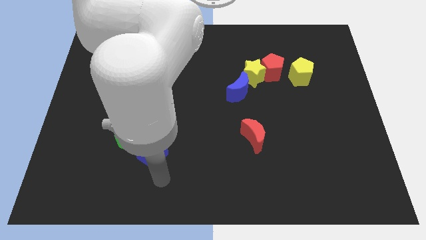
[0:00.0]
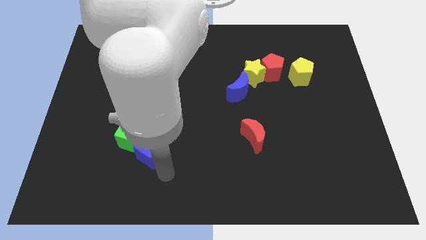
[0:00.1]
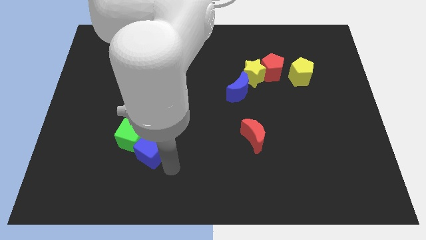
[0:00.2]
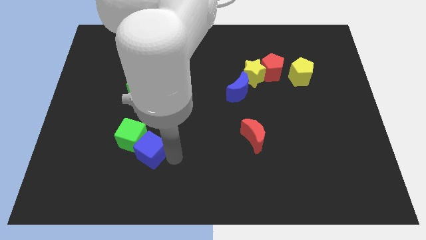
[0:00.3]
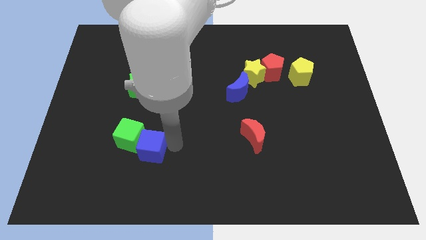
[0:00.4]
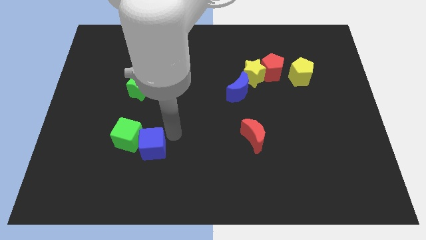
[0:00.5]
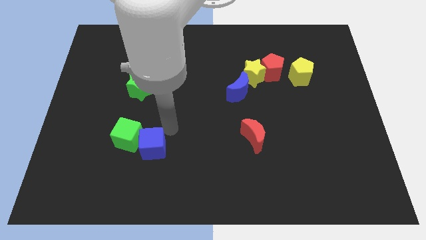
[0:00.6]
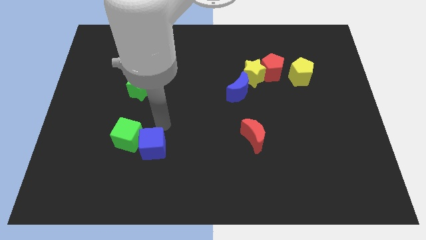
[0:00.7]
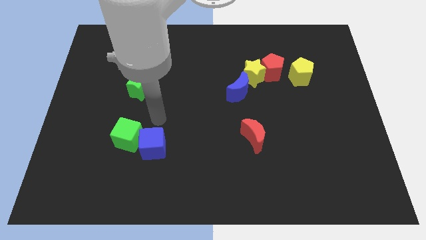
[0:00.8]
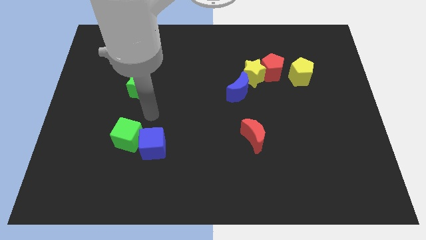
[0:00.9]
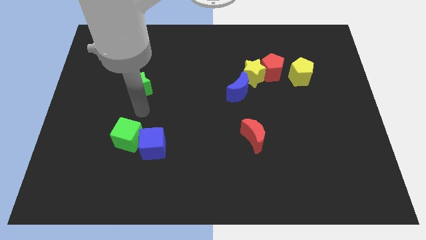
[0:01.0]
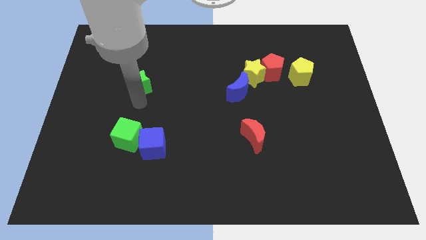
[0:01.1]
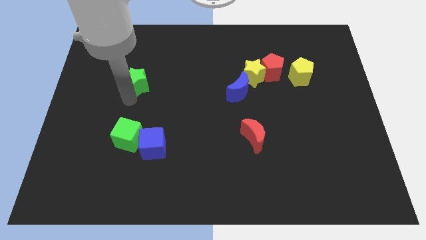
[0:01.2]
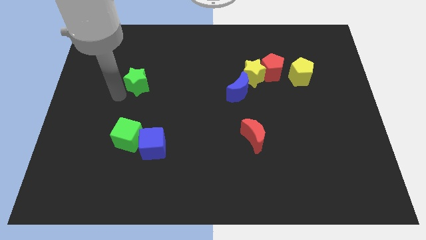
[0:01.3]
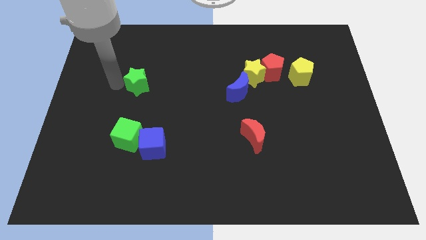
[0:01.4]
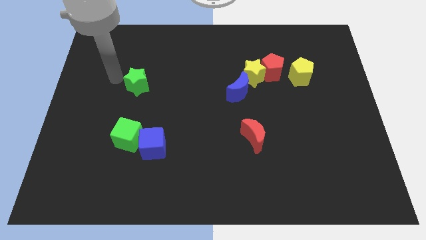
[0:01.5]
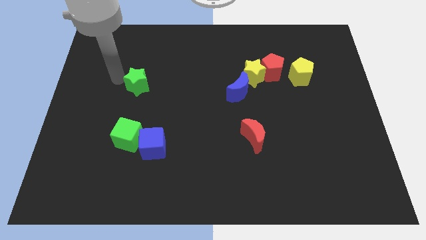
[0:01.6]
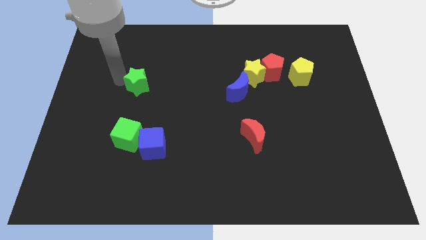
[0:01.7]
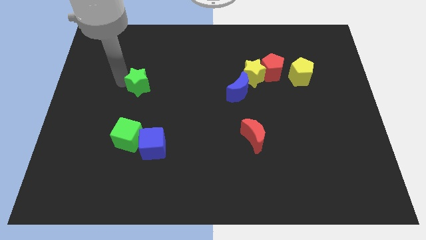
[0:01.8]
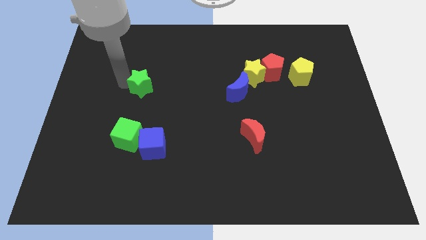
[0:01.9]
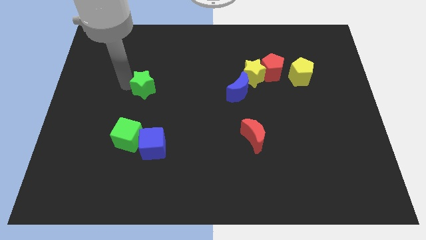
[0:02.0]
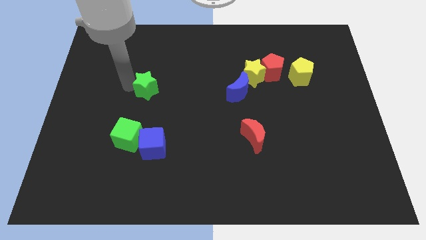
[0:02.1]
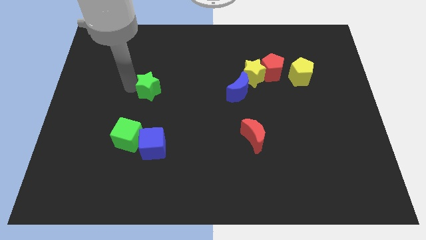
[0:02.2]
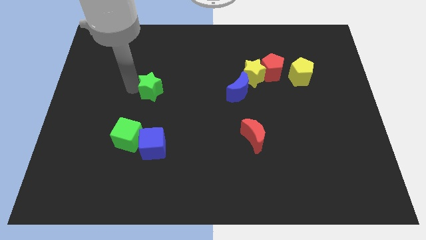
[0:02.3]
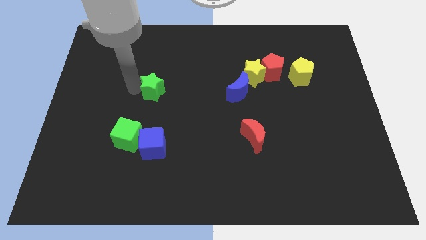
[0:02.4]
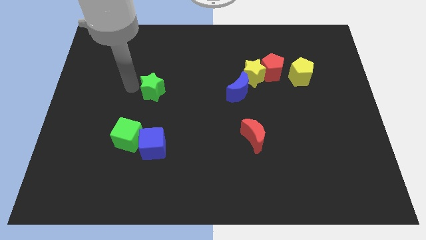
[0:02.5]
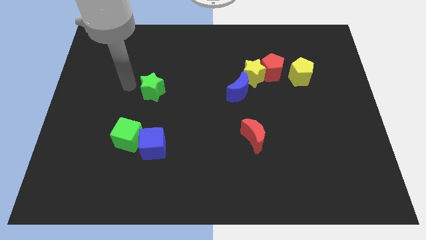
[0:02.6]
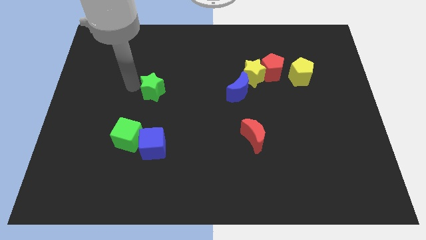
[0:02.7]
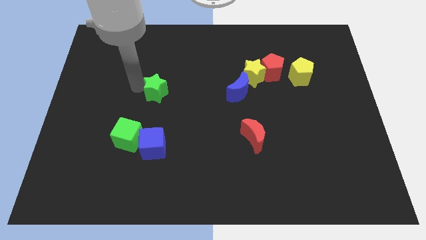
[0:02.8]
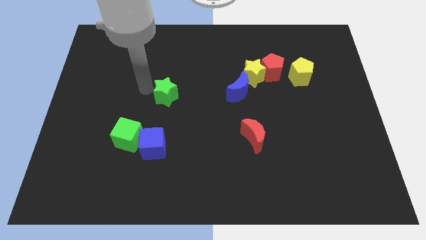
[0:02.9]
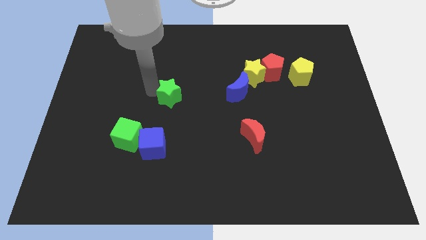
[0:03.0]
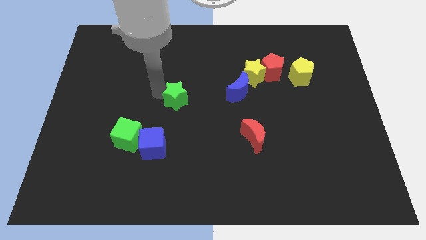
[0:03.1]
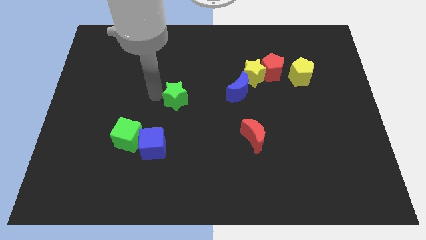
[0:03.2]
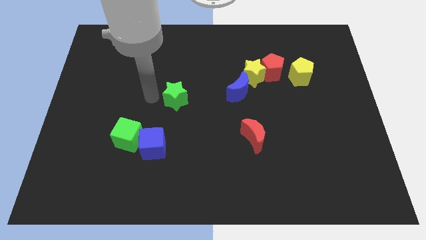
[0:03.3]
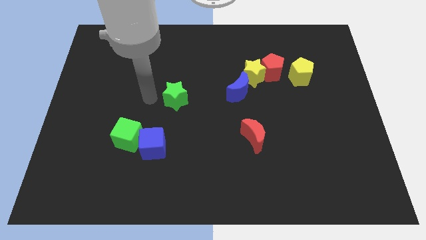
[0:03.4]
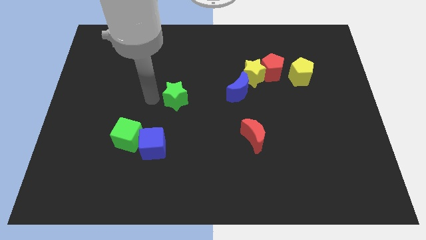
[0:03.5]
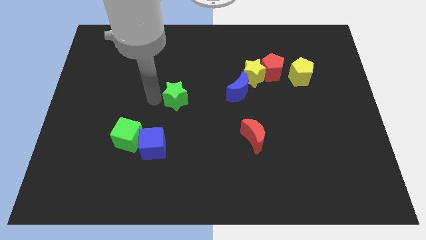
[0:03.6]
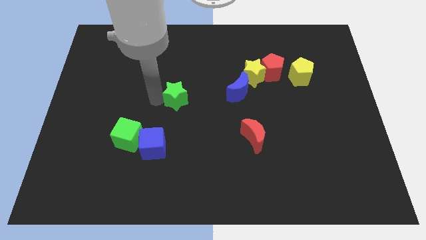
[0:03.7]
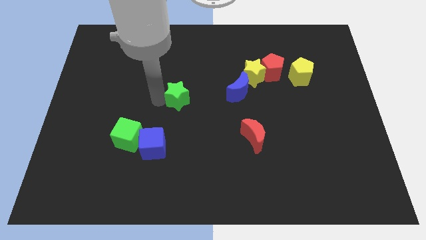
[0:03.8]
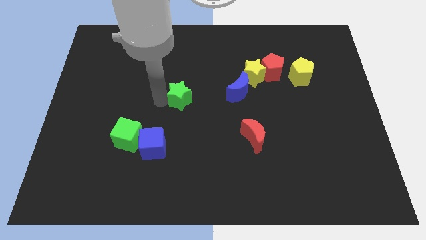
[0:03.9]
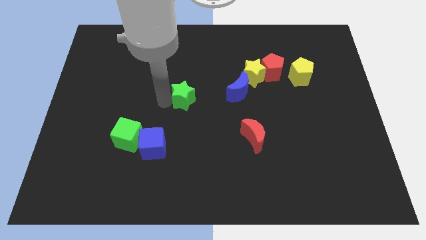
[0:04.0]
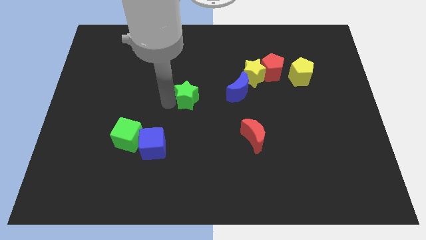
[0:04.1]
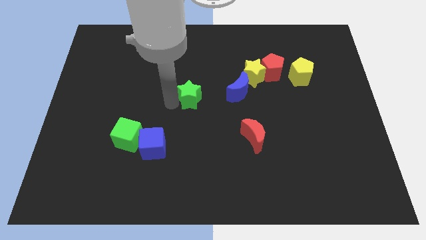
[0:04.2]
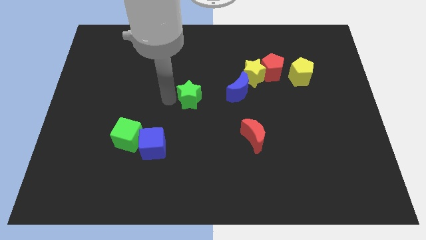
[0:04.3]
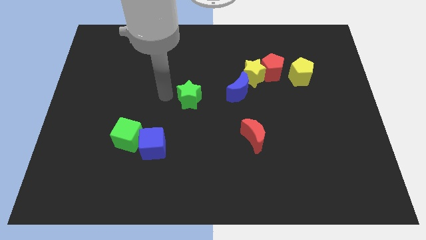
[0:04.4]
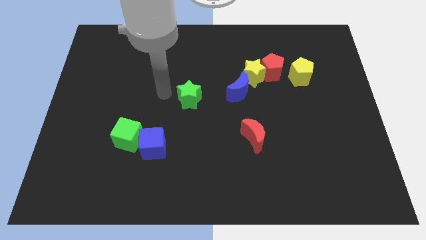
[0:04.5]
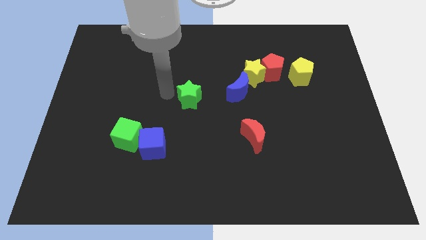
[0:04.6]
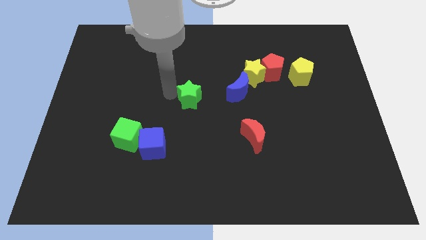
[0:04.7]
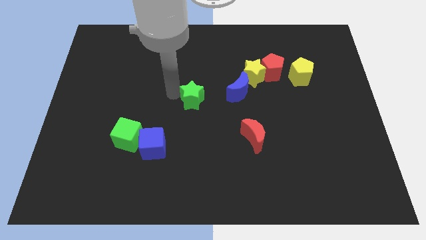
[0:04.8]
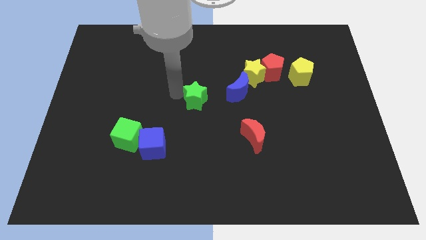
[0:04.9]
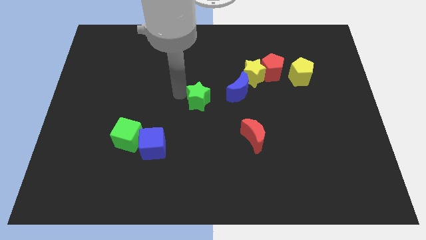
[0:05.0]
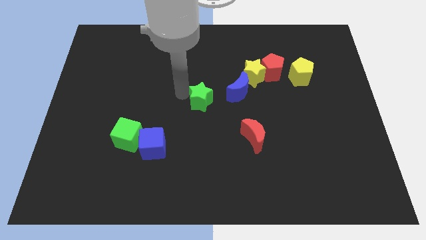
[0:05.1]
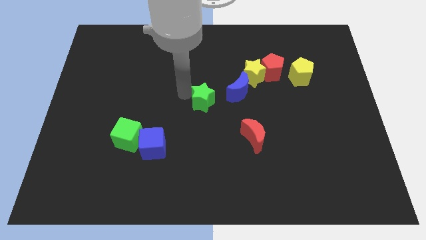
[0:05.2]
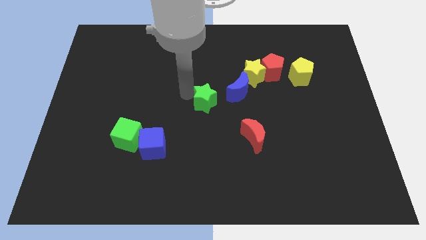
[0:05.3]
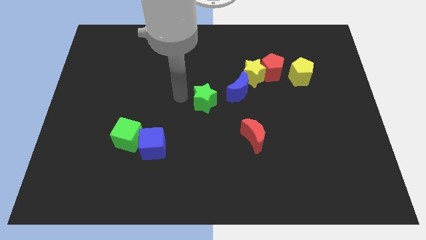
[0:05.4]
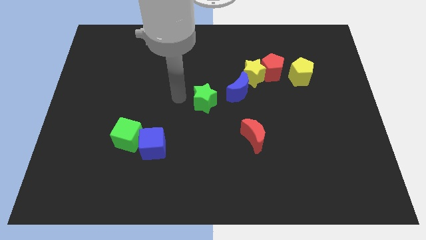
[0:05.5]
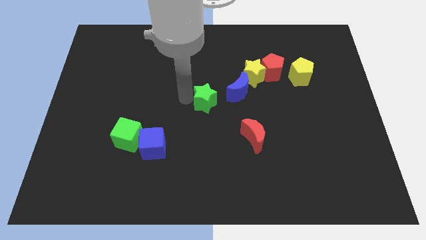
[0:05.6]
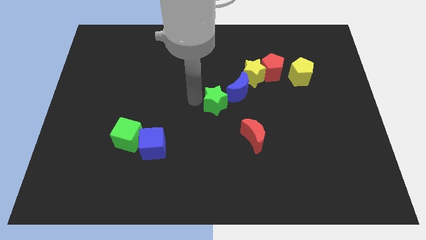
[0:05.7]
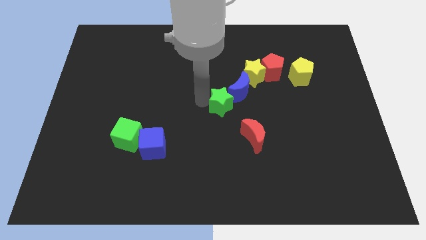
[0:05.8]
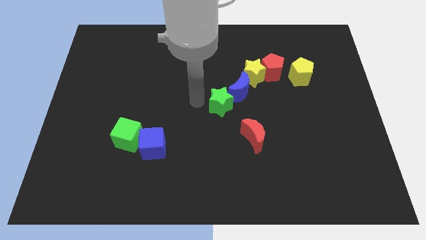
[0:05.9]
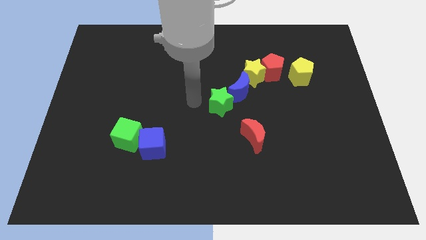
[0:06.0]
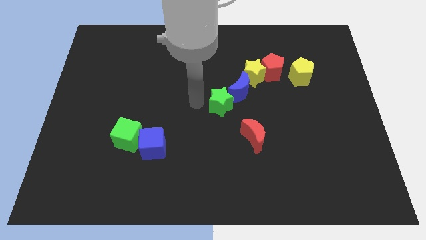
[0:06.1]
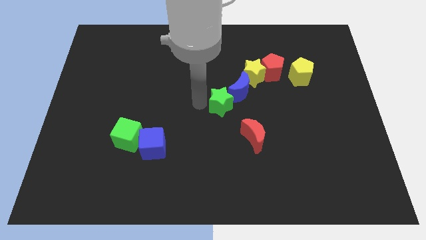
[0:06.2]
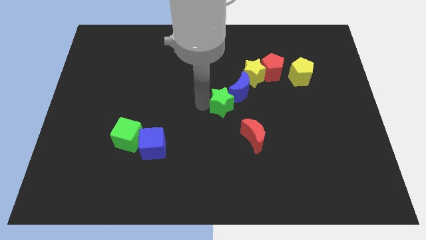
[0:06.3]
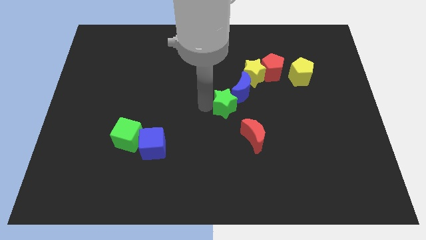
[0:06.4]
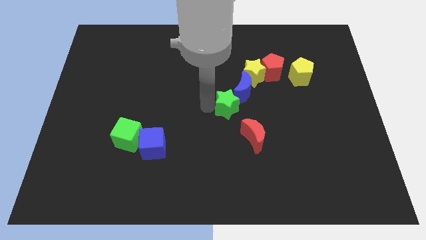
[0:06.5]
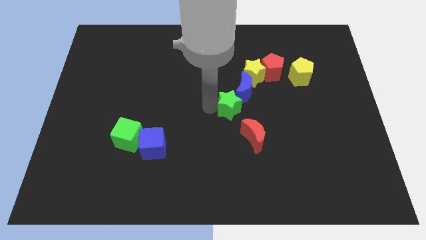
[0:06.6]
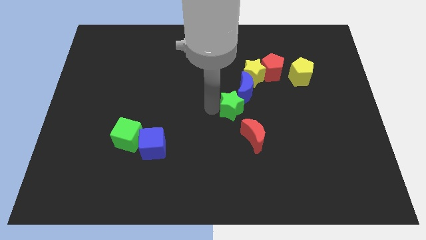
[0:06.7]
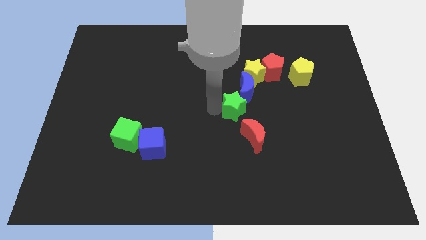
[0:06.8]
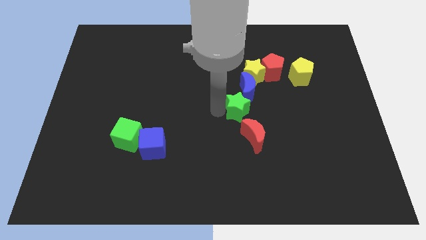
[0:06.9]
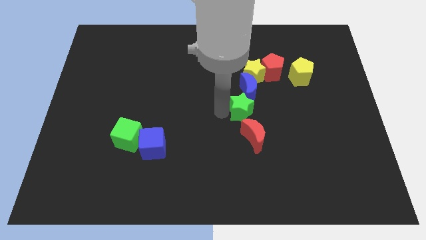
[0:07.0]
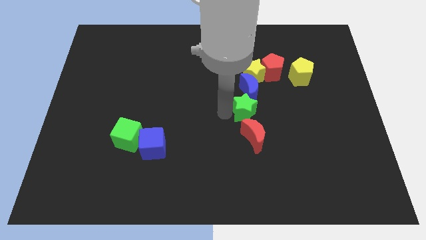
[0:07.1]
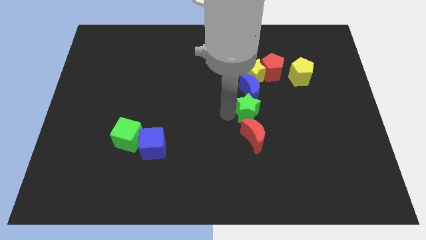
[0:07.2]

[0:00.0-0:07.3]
slide the green star to the bottom right side of the blue moon
